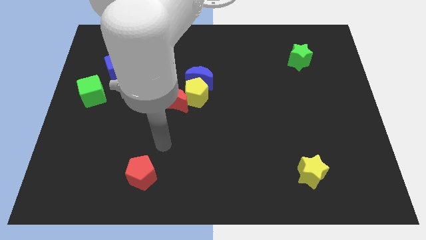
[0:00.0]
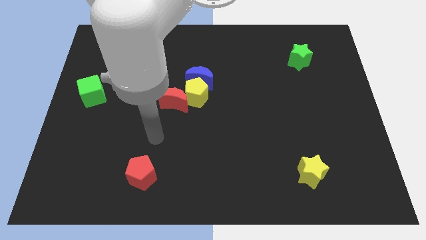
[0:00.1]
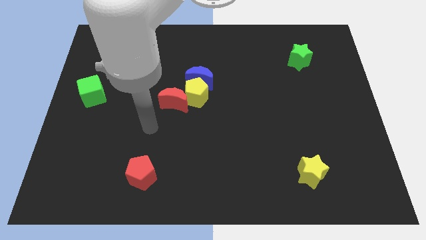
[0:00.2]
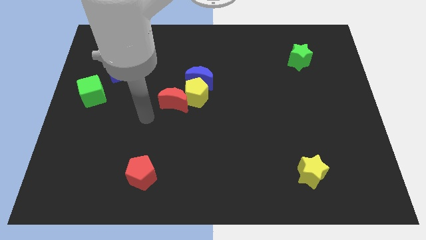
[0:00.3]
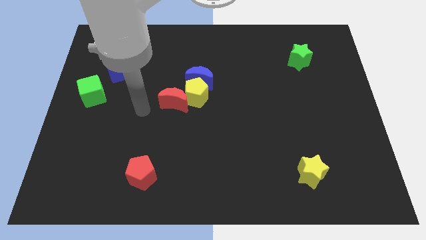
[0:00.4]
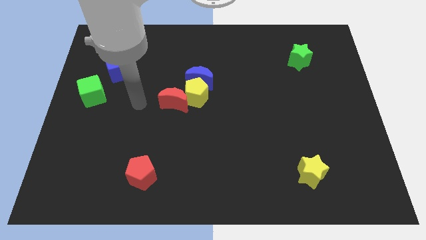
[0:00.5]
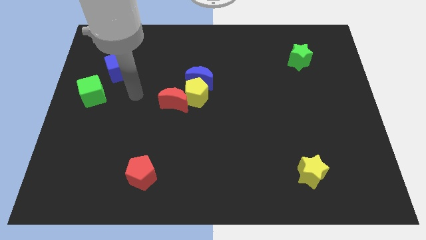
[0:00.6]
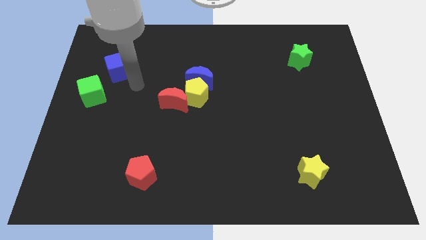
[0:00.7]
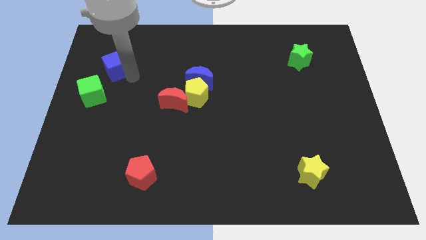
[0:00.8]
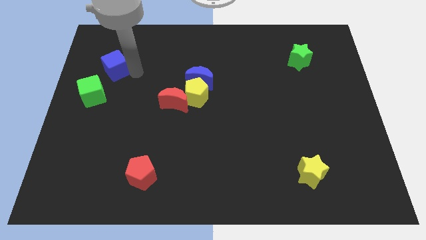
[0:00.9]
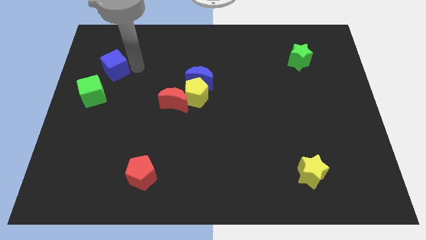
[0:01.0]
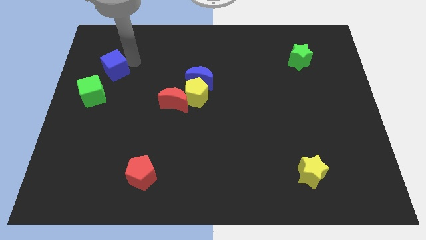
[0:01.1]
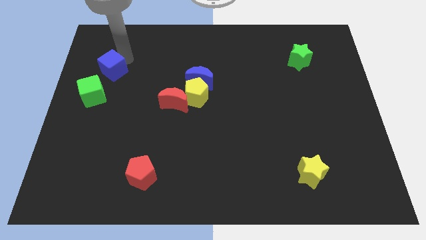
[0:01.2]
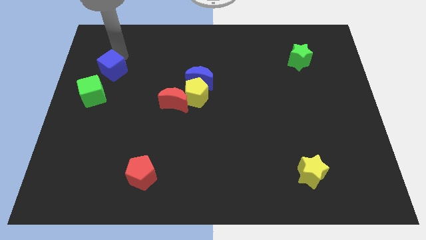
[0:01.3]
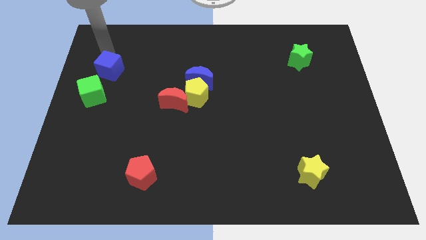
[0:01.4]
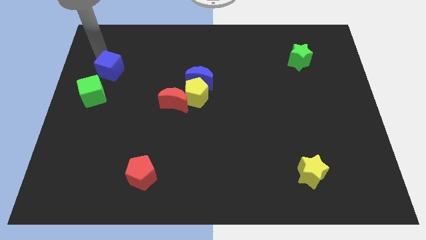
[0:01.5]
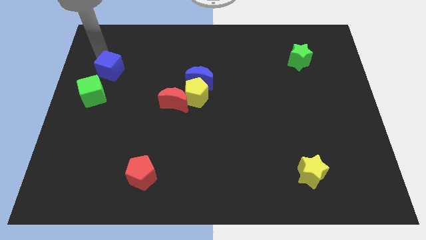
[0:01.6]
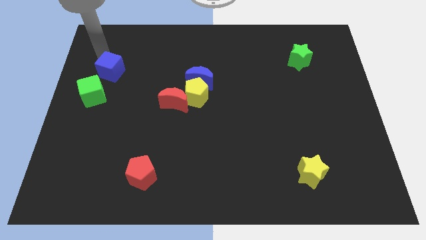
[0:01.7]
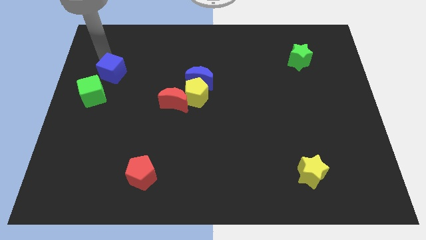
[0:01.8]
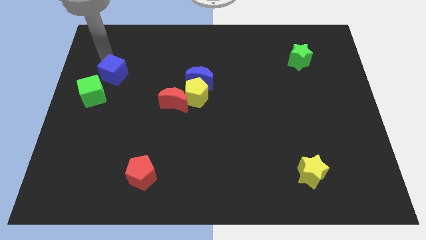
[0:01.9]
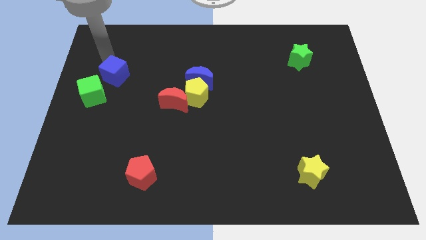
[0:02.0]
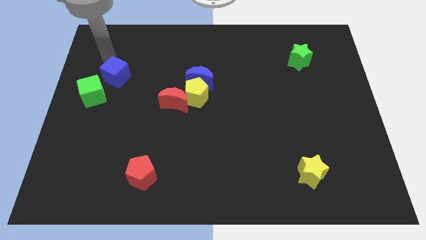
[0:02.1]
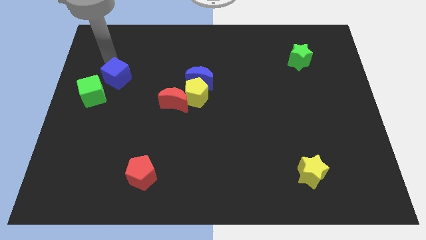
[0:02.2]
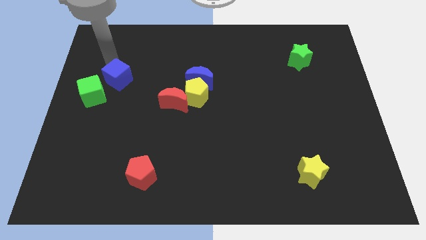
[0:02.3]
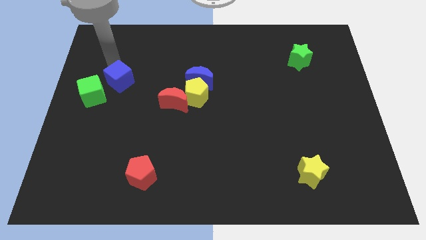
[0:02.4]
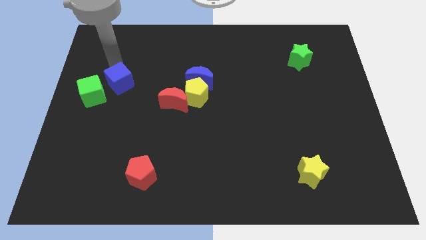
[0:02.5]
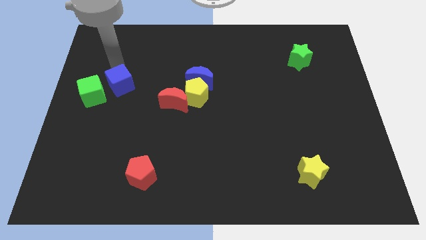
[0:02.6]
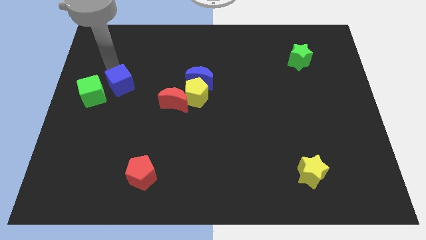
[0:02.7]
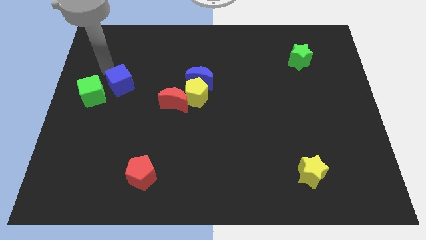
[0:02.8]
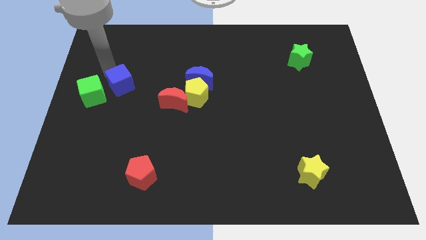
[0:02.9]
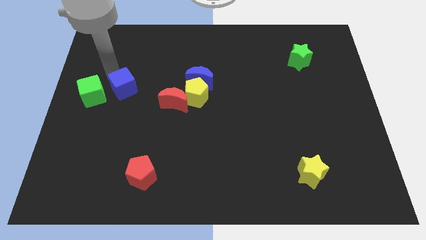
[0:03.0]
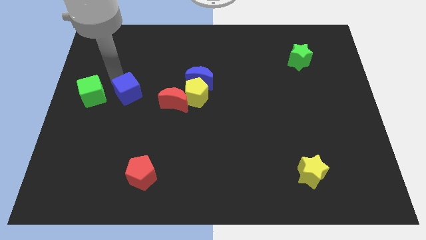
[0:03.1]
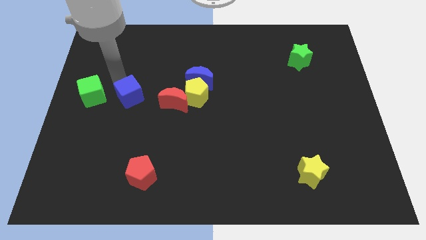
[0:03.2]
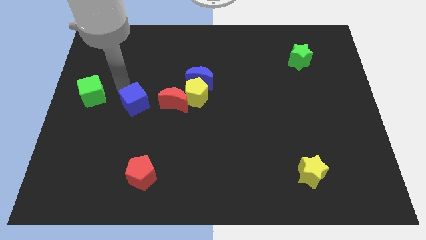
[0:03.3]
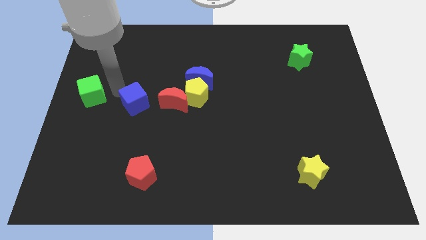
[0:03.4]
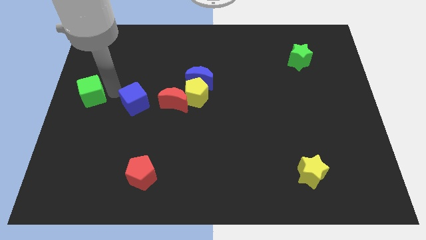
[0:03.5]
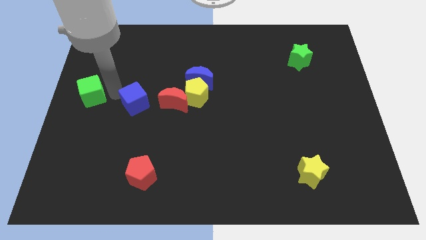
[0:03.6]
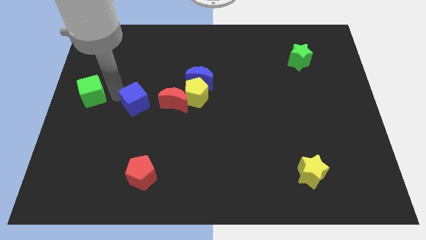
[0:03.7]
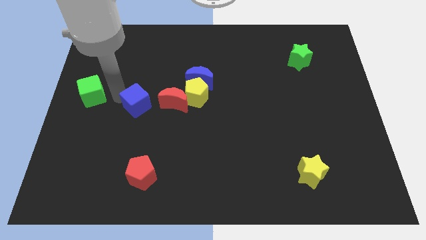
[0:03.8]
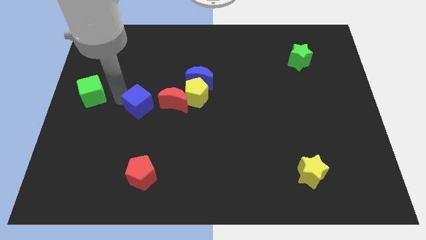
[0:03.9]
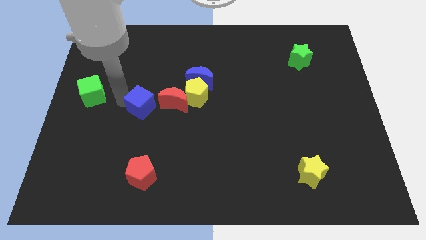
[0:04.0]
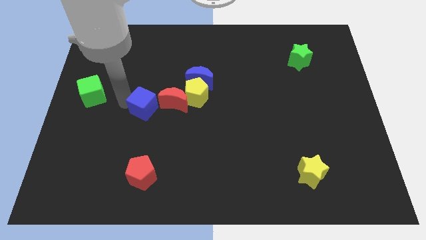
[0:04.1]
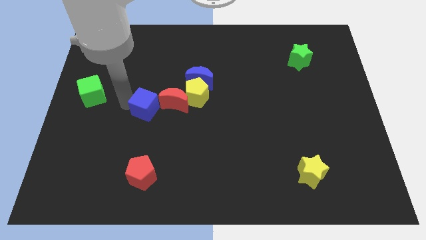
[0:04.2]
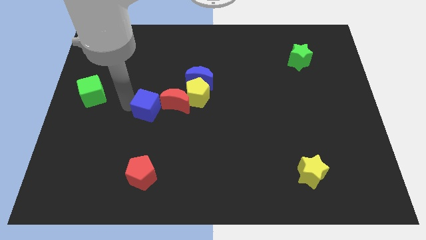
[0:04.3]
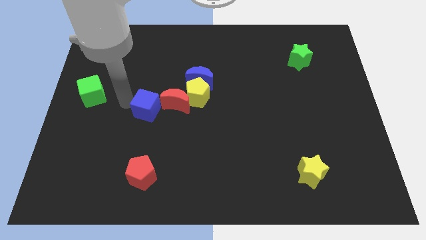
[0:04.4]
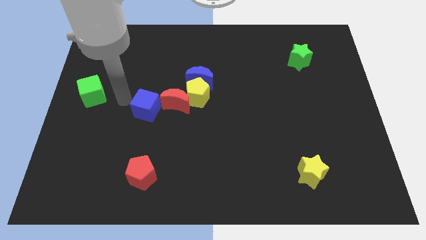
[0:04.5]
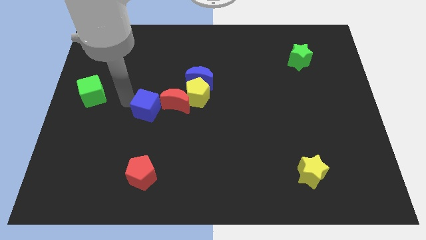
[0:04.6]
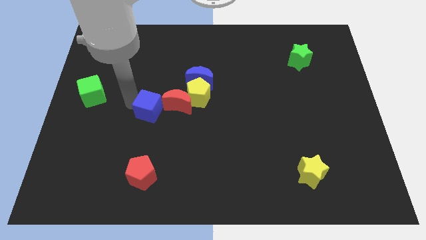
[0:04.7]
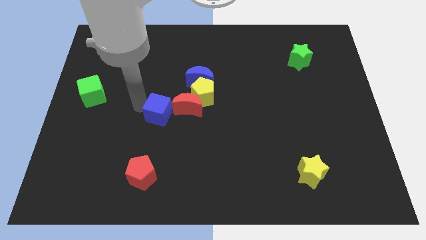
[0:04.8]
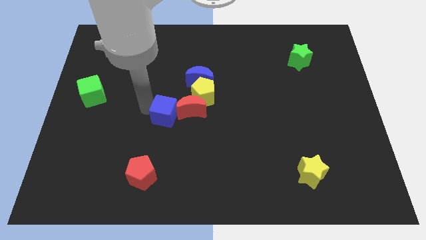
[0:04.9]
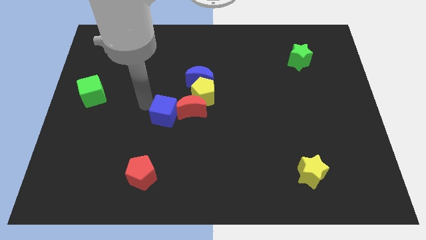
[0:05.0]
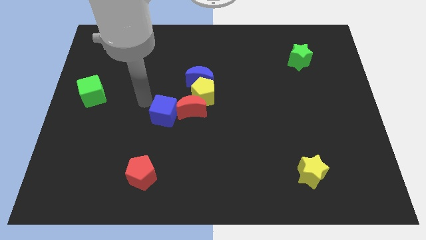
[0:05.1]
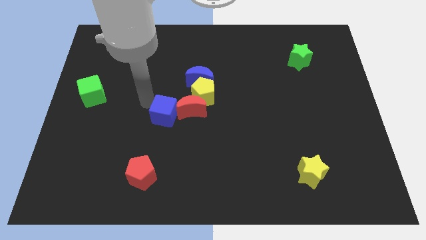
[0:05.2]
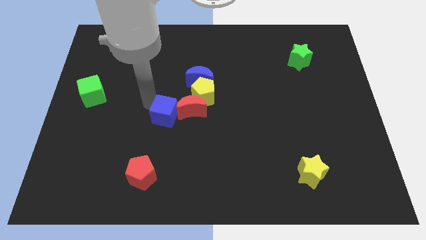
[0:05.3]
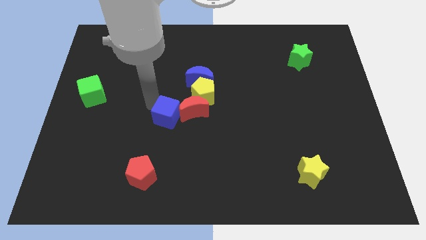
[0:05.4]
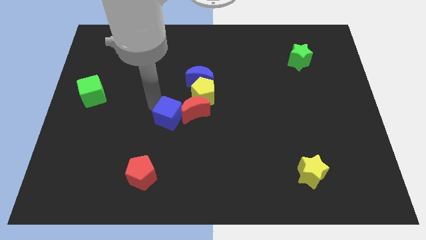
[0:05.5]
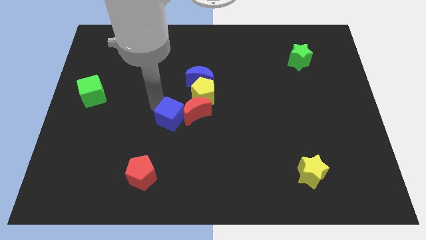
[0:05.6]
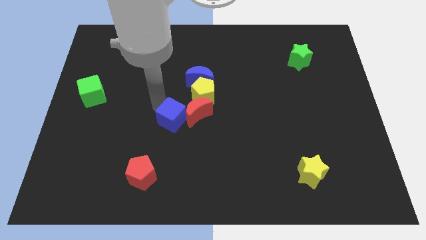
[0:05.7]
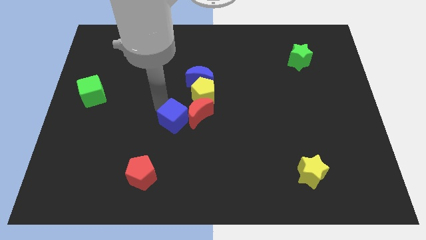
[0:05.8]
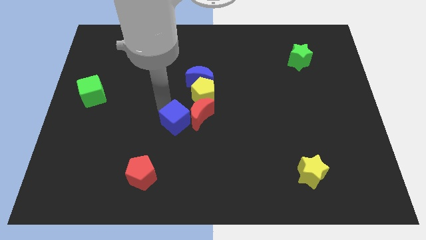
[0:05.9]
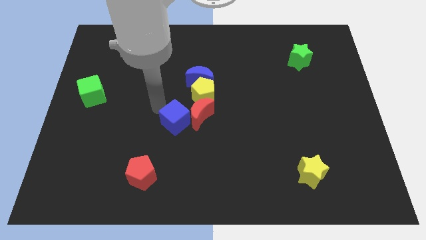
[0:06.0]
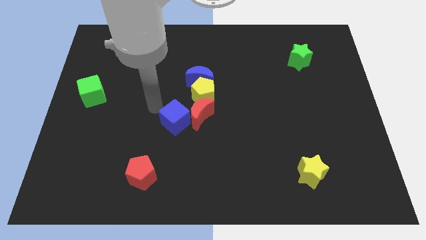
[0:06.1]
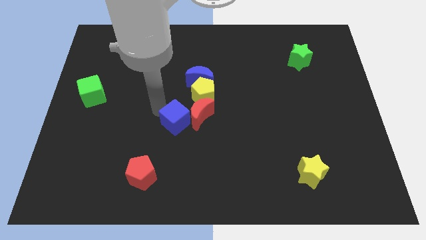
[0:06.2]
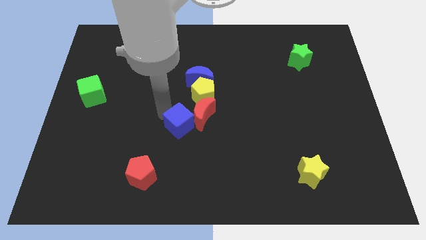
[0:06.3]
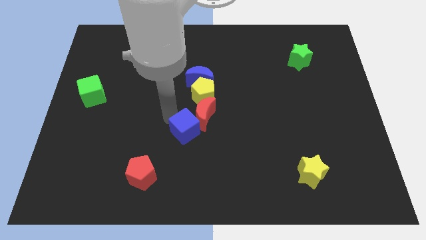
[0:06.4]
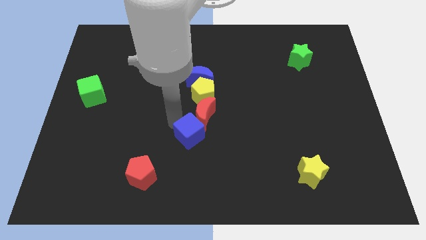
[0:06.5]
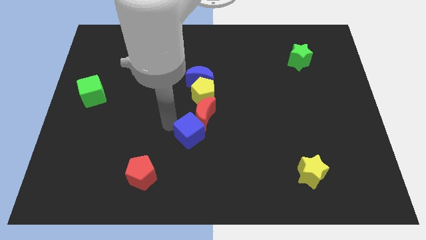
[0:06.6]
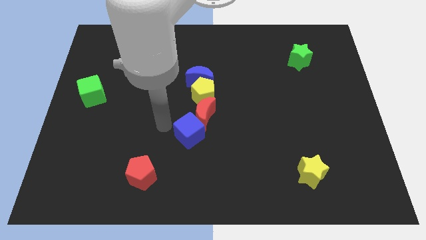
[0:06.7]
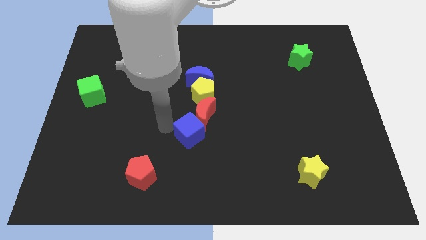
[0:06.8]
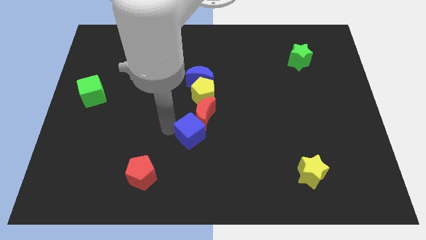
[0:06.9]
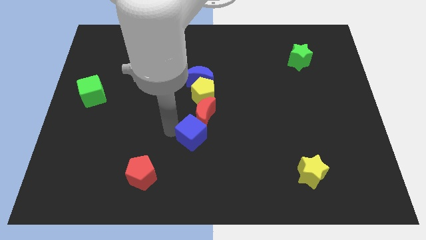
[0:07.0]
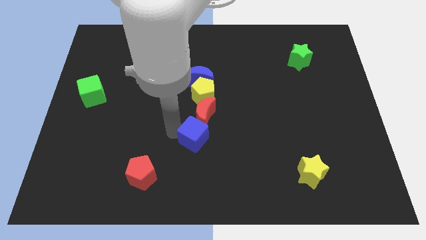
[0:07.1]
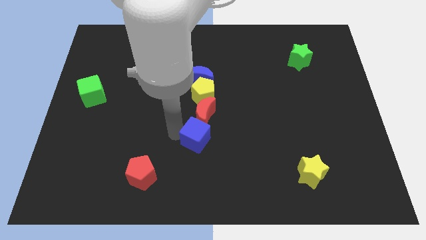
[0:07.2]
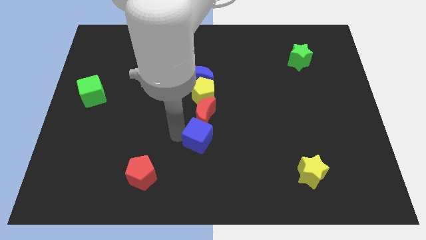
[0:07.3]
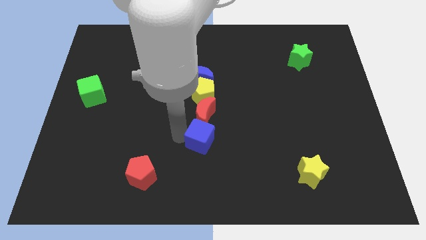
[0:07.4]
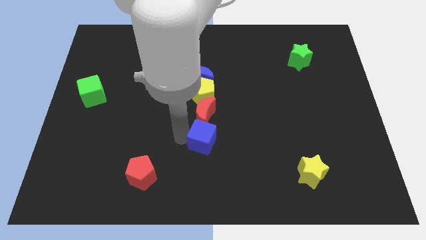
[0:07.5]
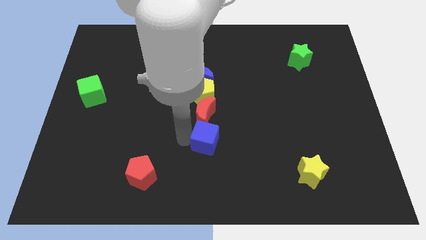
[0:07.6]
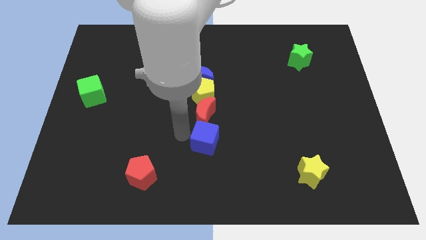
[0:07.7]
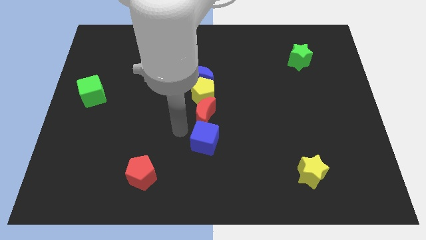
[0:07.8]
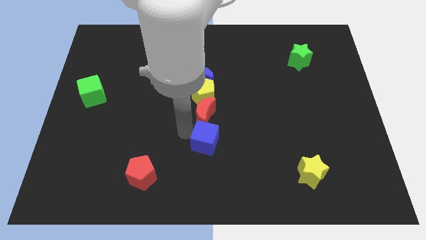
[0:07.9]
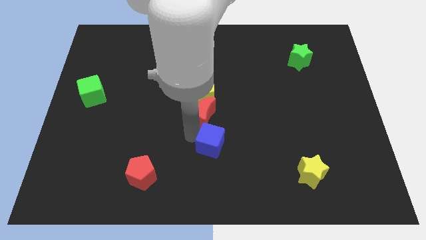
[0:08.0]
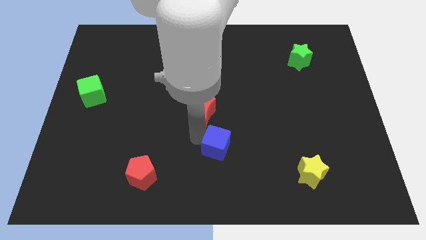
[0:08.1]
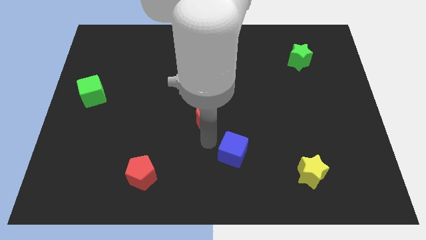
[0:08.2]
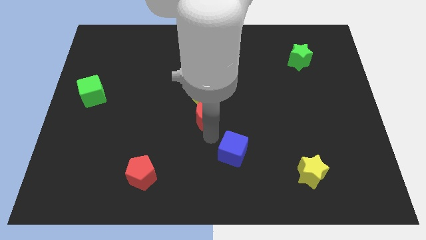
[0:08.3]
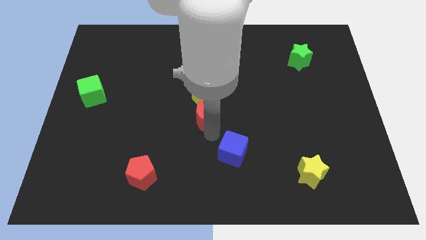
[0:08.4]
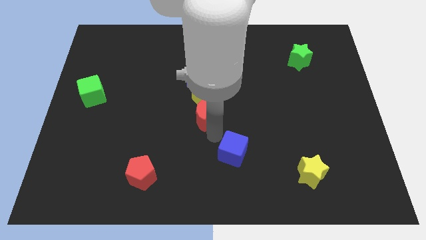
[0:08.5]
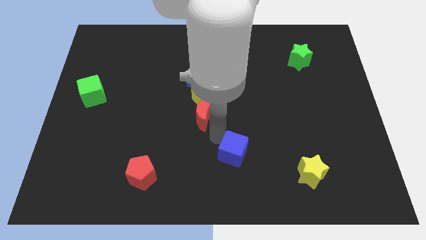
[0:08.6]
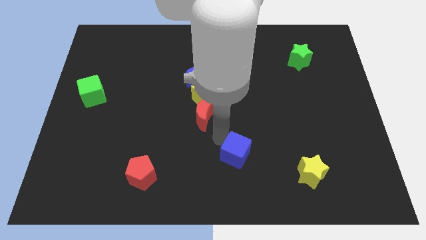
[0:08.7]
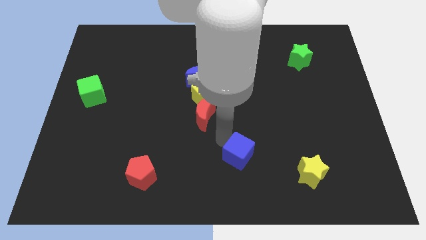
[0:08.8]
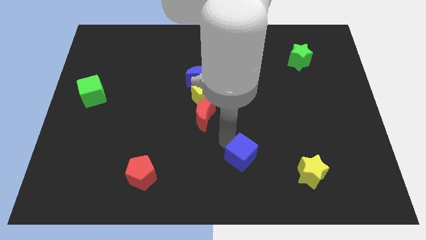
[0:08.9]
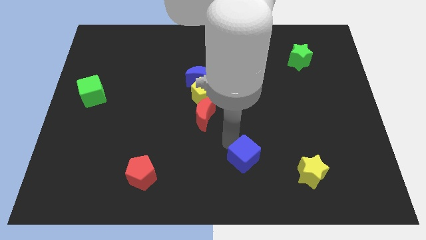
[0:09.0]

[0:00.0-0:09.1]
slide the blue cube left of the yellow star
